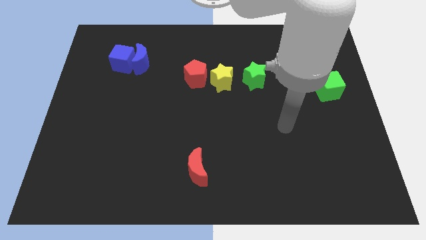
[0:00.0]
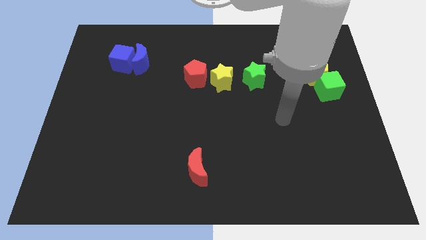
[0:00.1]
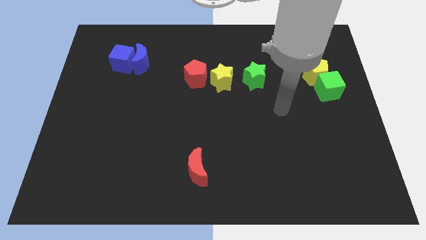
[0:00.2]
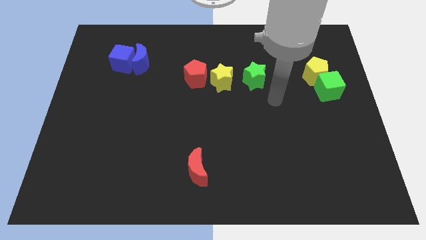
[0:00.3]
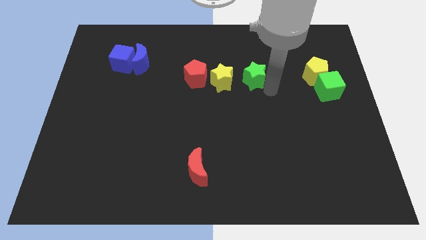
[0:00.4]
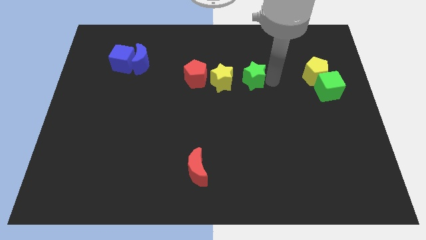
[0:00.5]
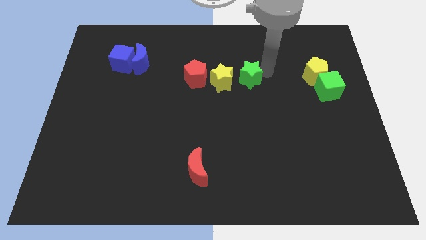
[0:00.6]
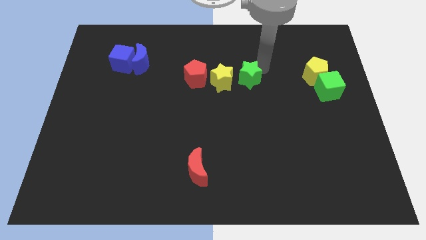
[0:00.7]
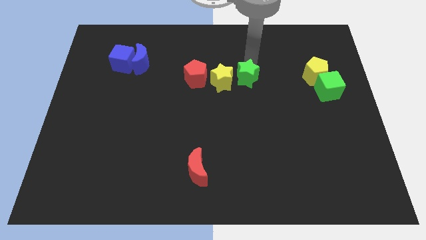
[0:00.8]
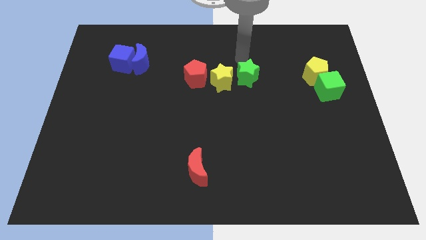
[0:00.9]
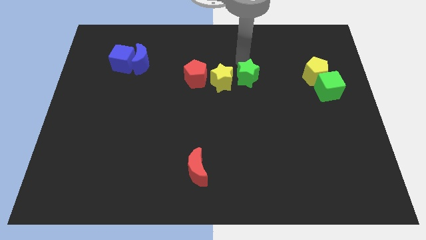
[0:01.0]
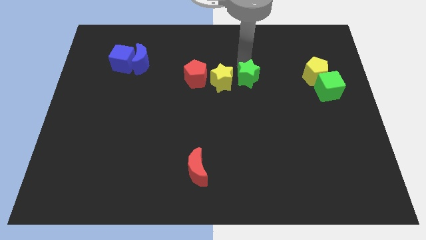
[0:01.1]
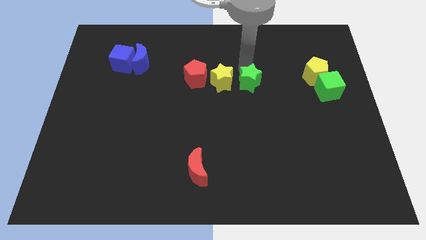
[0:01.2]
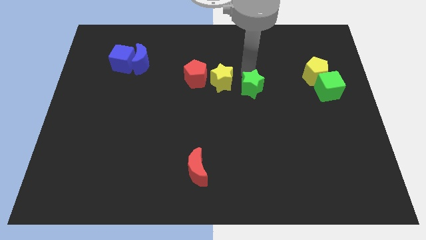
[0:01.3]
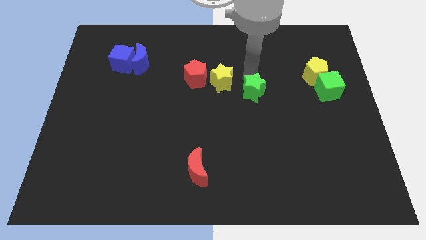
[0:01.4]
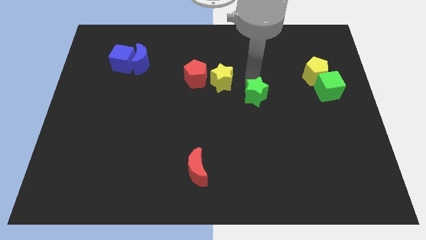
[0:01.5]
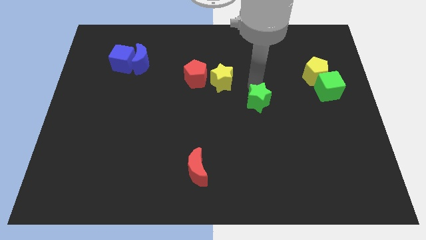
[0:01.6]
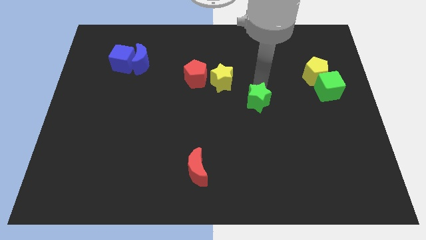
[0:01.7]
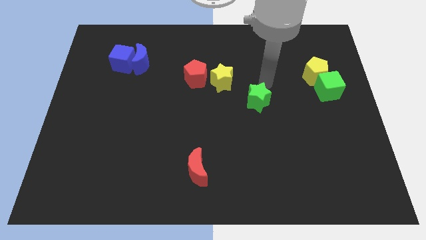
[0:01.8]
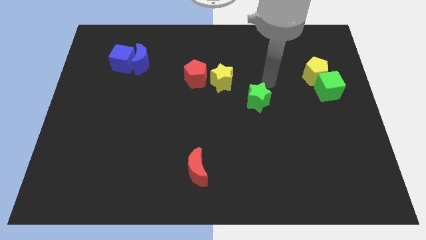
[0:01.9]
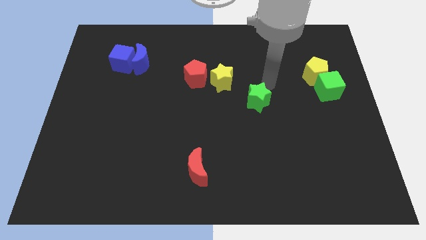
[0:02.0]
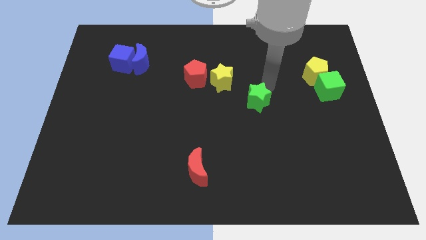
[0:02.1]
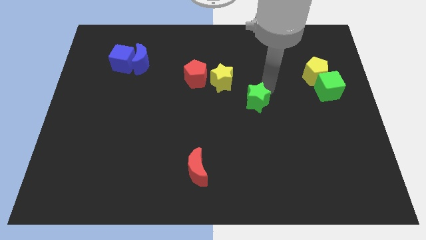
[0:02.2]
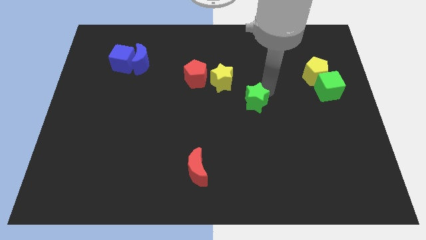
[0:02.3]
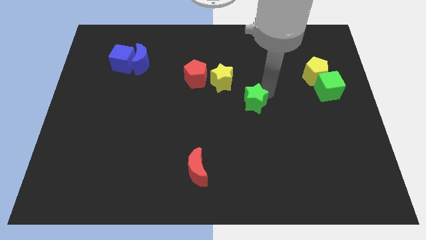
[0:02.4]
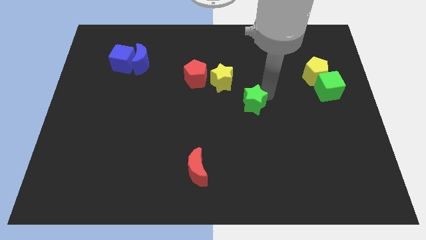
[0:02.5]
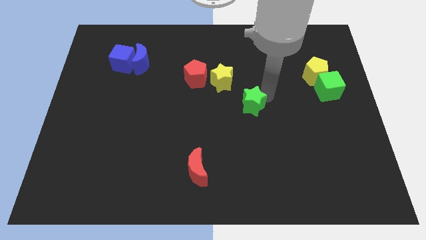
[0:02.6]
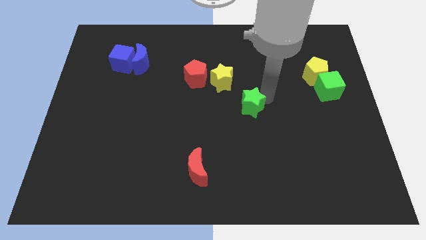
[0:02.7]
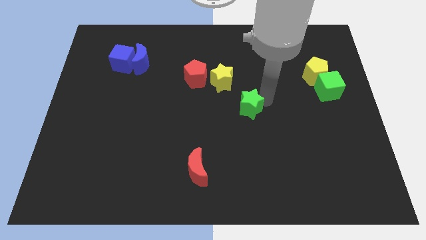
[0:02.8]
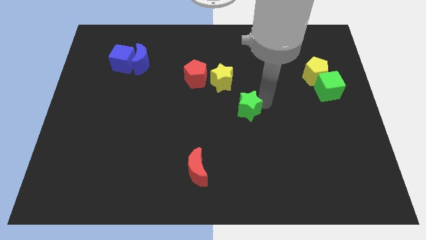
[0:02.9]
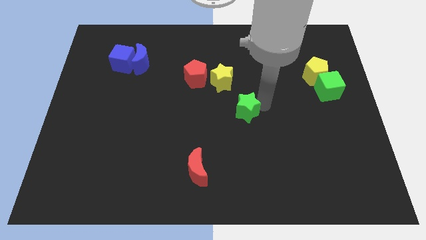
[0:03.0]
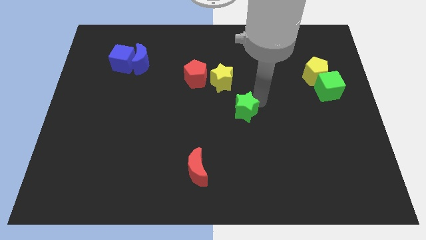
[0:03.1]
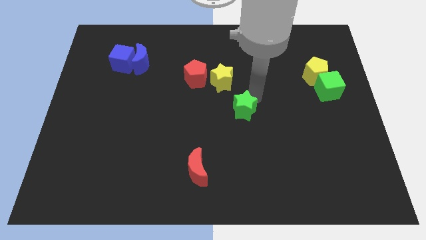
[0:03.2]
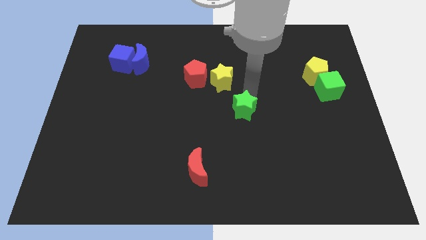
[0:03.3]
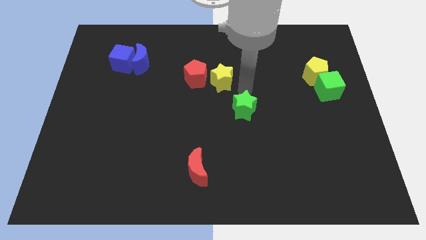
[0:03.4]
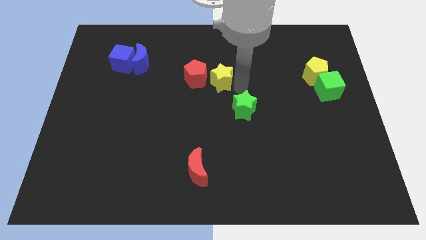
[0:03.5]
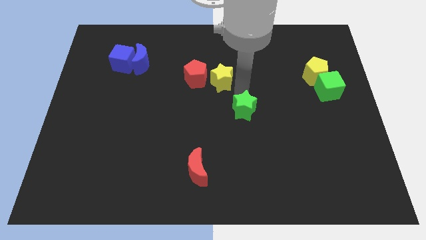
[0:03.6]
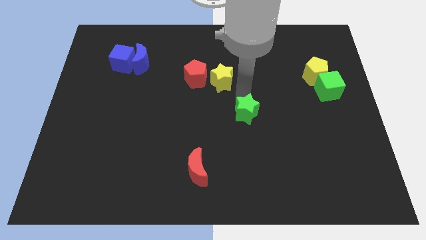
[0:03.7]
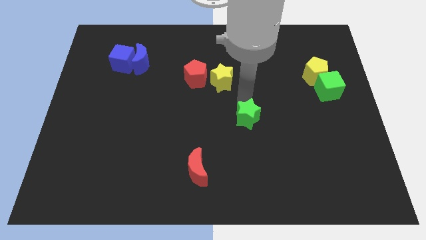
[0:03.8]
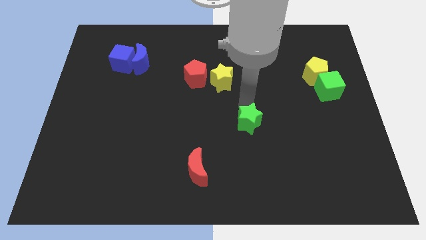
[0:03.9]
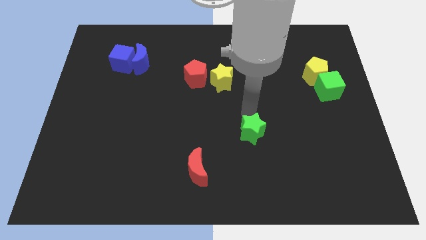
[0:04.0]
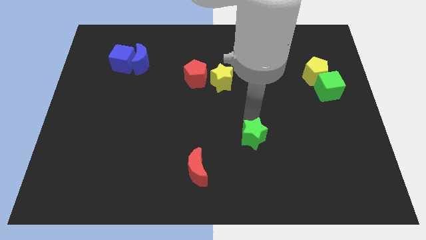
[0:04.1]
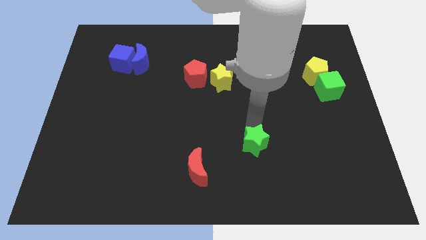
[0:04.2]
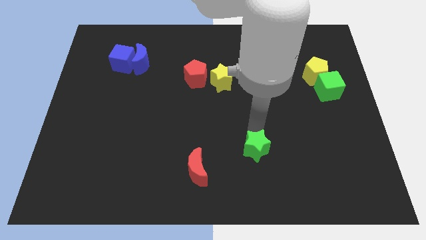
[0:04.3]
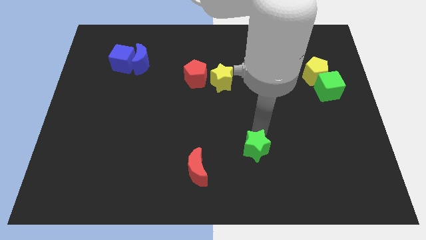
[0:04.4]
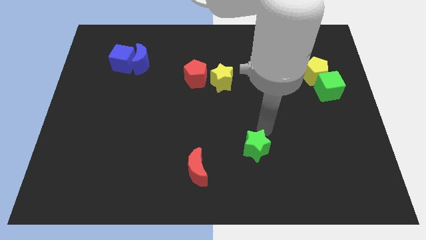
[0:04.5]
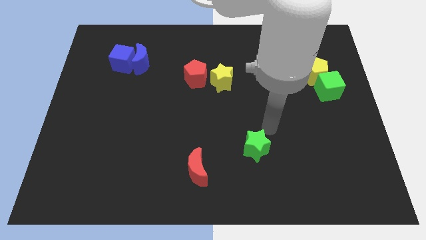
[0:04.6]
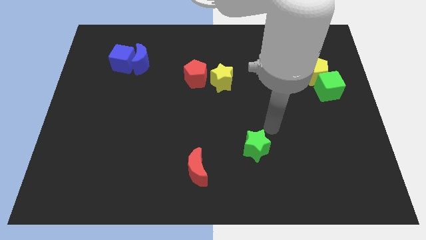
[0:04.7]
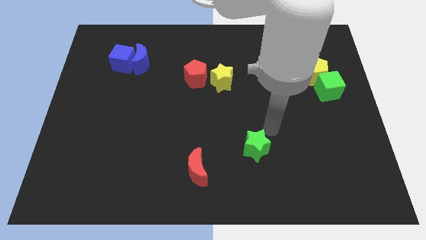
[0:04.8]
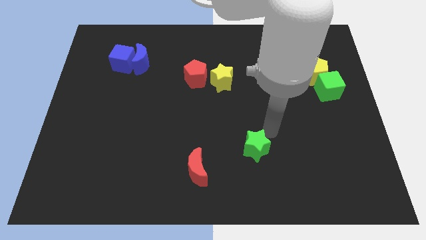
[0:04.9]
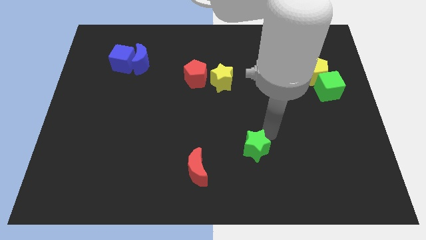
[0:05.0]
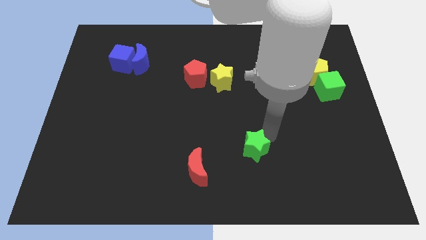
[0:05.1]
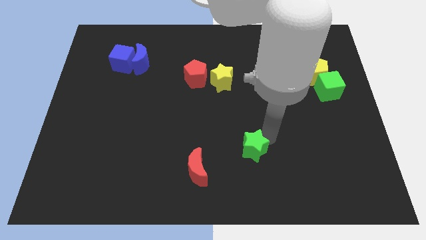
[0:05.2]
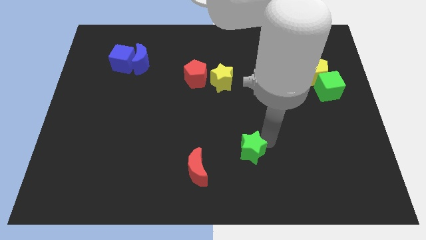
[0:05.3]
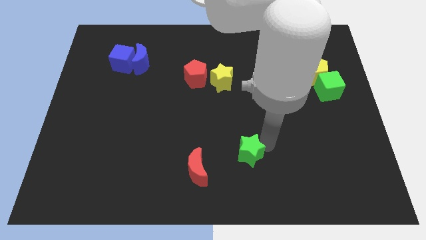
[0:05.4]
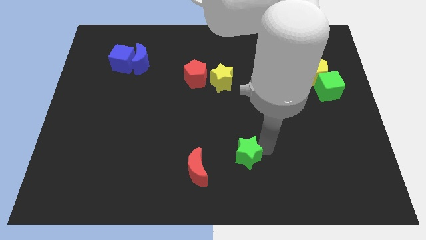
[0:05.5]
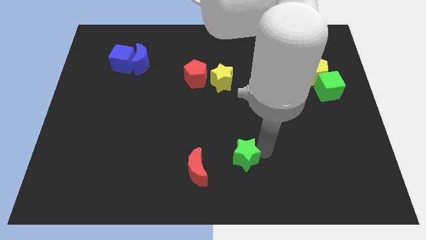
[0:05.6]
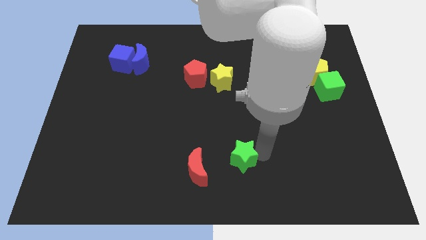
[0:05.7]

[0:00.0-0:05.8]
put the green star to the bottom side
